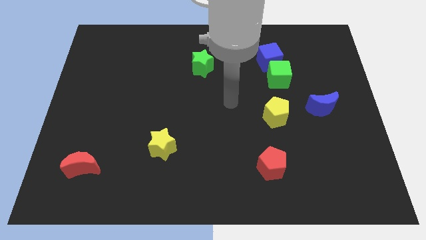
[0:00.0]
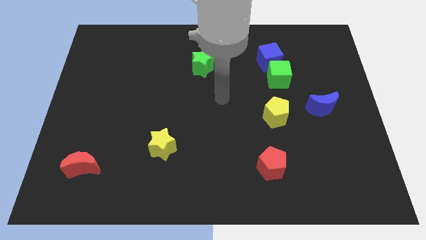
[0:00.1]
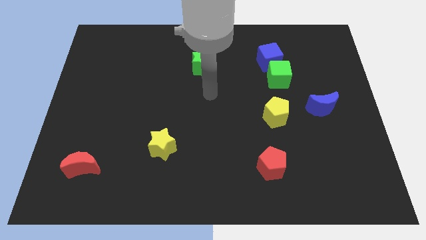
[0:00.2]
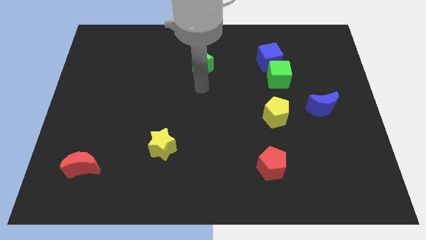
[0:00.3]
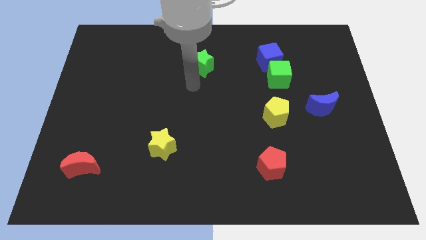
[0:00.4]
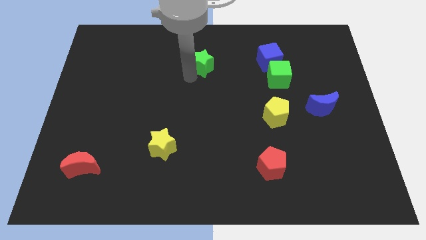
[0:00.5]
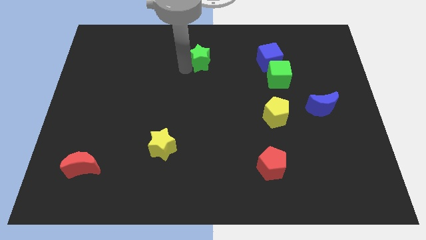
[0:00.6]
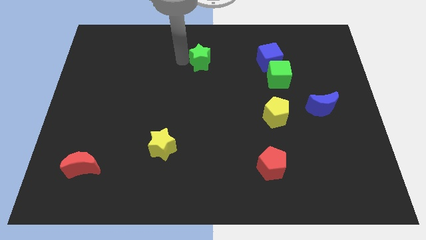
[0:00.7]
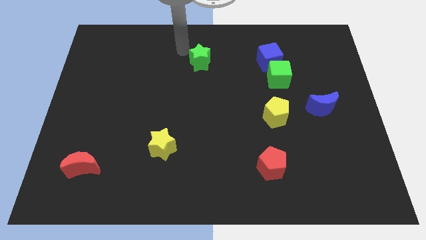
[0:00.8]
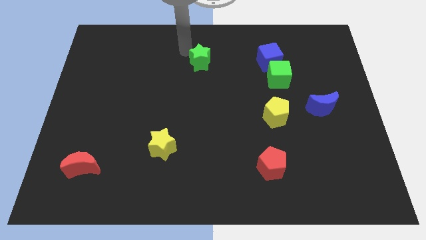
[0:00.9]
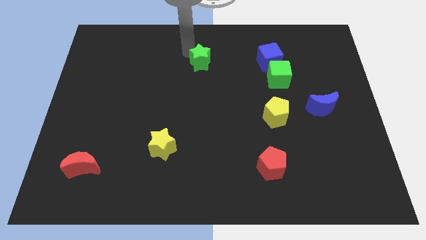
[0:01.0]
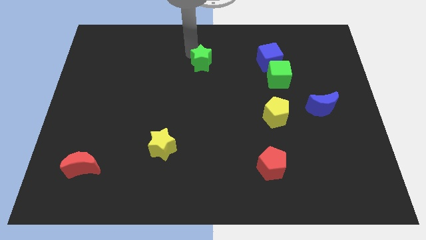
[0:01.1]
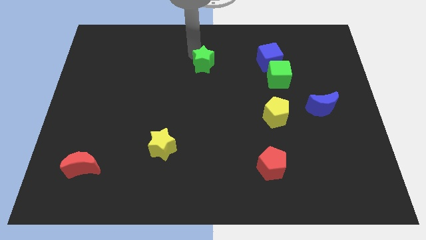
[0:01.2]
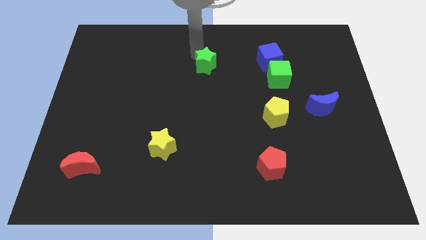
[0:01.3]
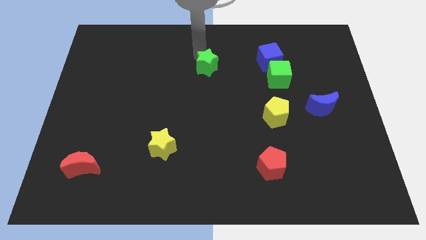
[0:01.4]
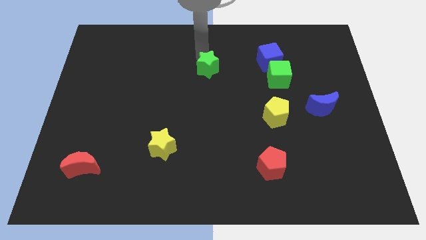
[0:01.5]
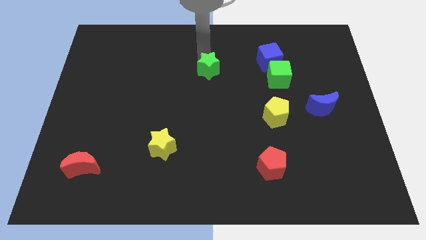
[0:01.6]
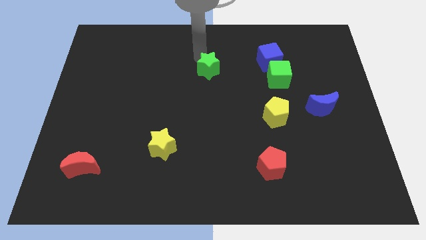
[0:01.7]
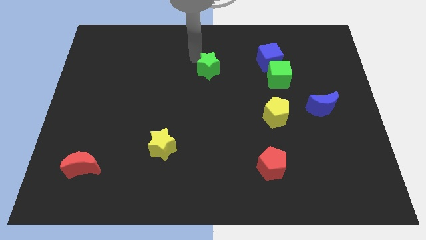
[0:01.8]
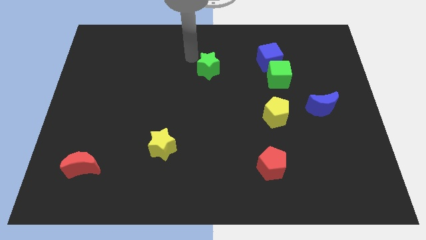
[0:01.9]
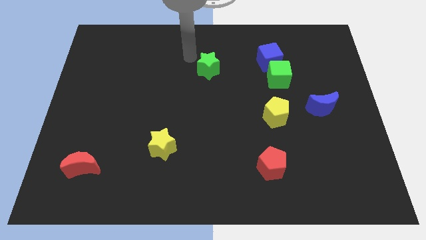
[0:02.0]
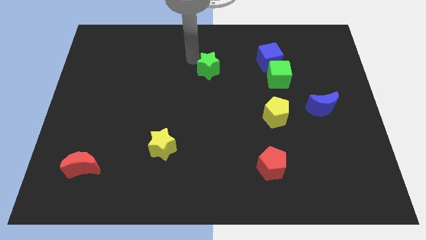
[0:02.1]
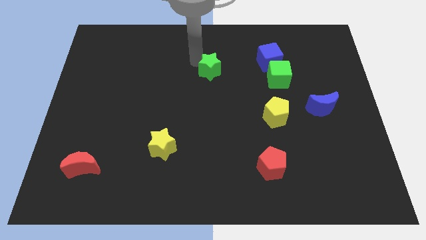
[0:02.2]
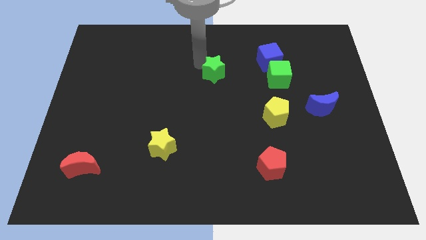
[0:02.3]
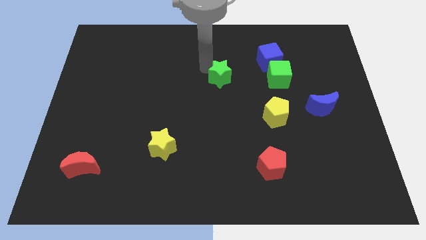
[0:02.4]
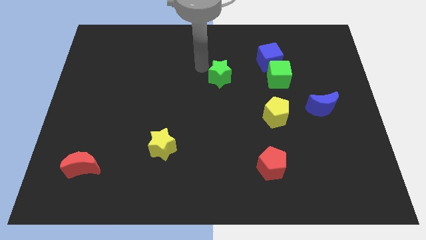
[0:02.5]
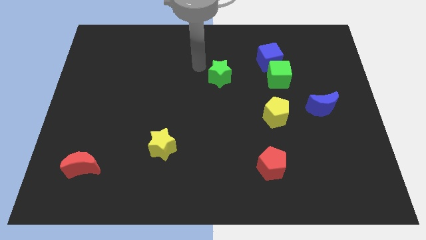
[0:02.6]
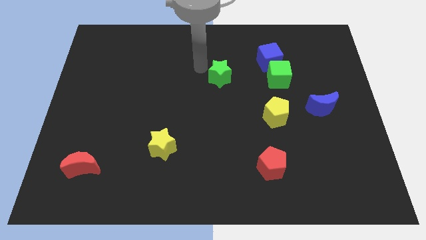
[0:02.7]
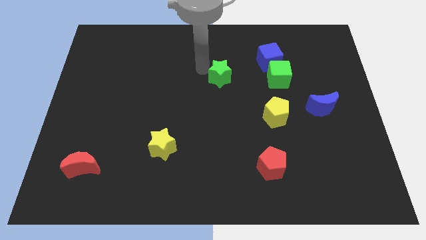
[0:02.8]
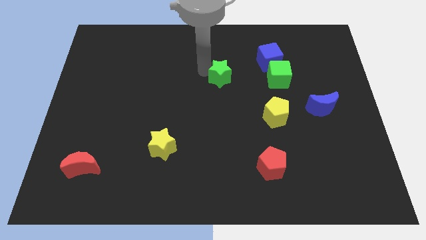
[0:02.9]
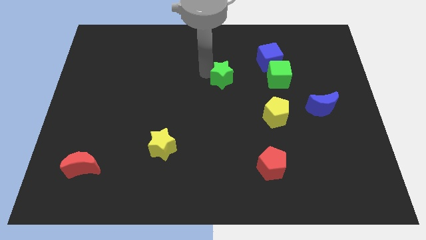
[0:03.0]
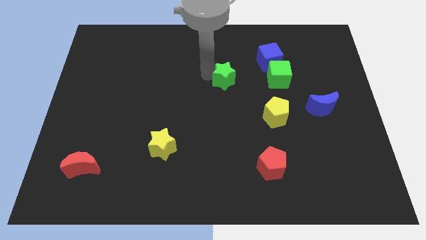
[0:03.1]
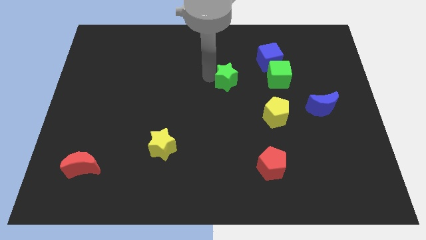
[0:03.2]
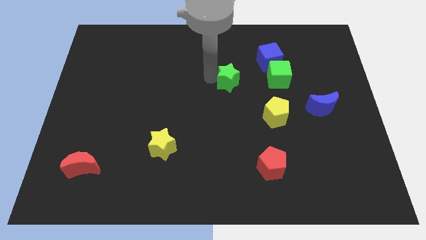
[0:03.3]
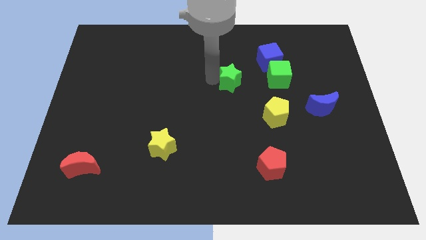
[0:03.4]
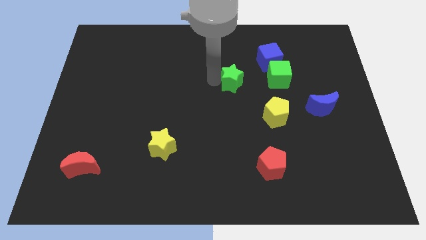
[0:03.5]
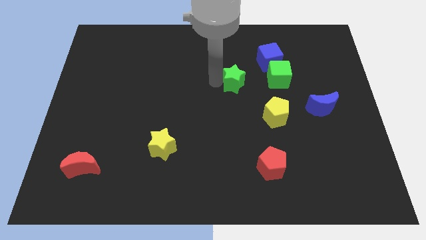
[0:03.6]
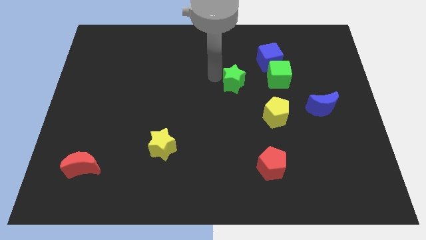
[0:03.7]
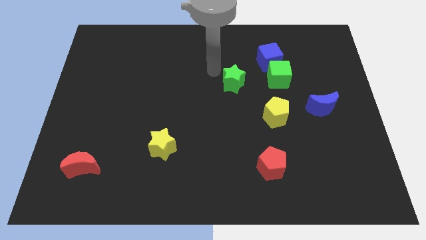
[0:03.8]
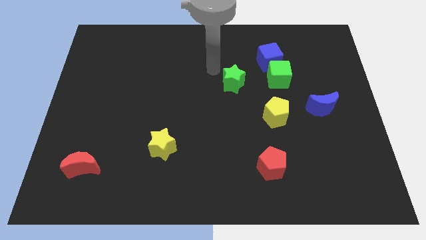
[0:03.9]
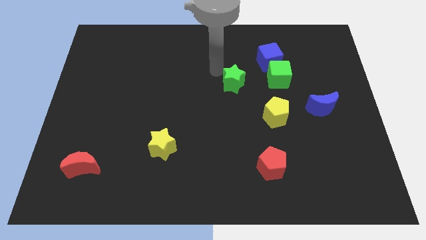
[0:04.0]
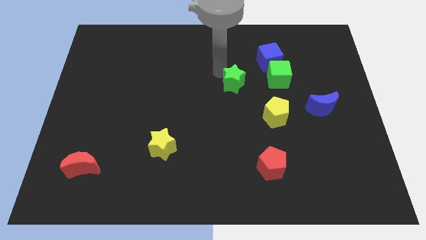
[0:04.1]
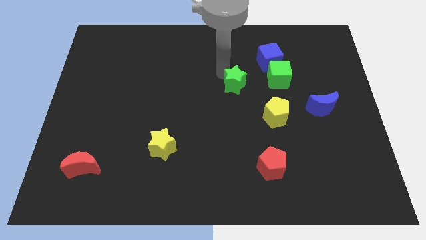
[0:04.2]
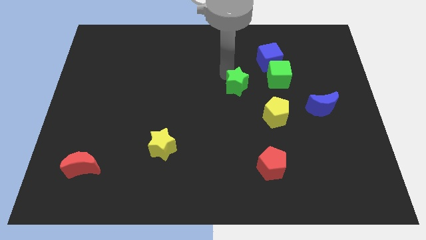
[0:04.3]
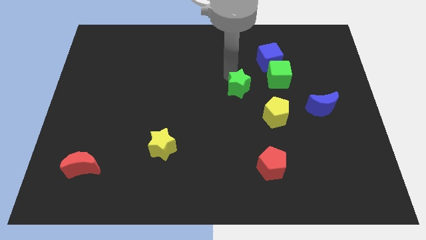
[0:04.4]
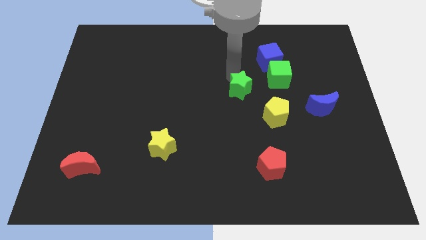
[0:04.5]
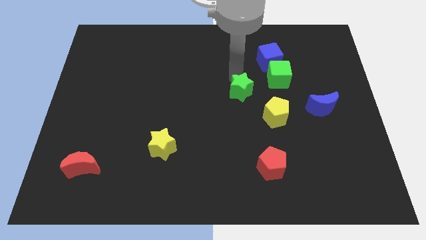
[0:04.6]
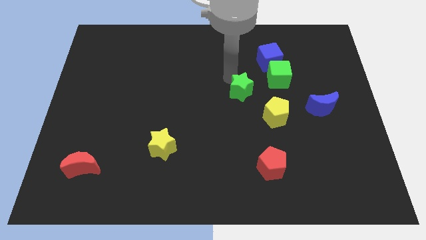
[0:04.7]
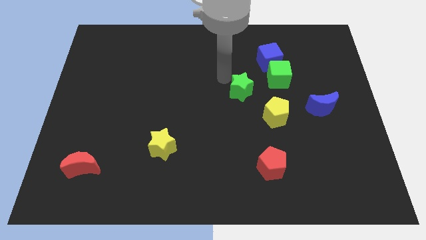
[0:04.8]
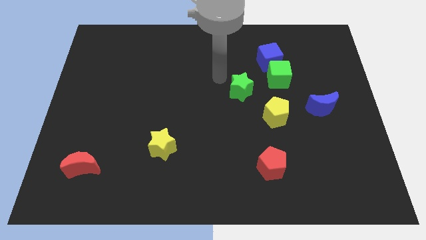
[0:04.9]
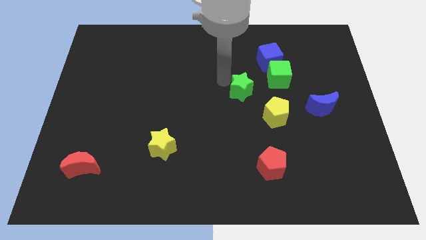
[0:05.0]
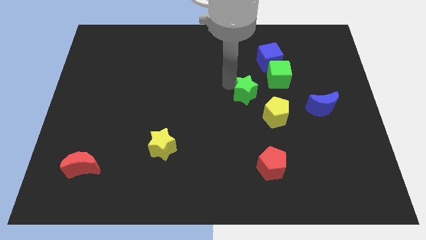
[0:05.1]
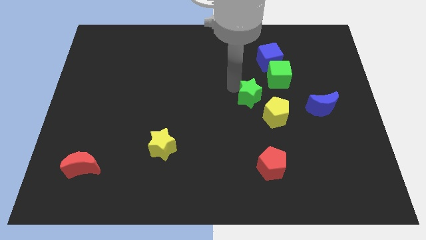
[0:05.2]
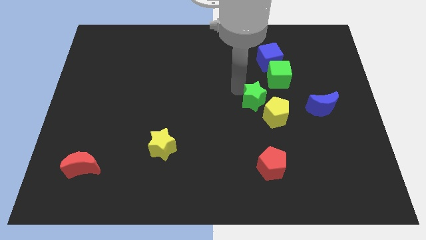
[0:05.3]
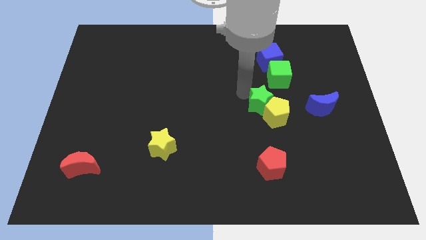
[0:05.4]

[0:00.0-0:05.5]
put the green star close to the yellow pentagon

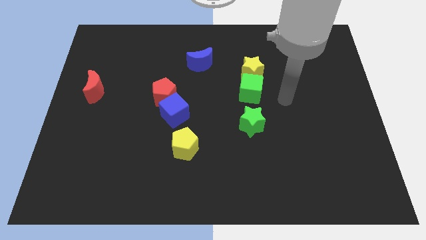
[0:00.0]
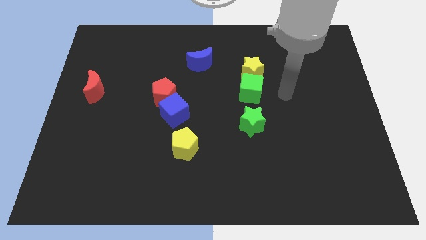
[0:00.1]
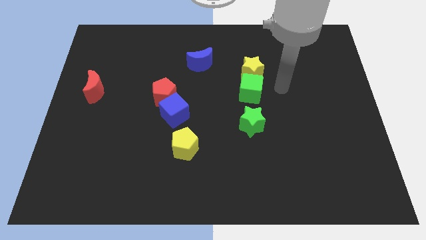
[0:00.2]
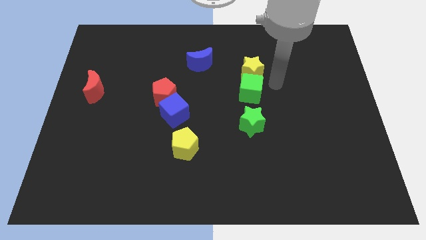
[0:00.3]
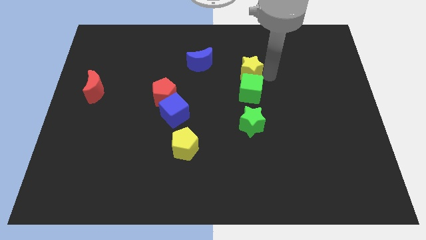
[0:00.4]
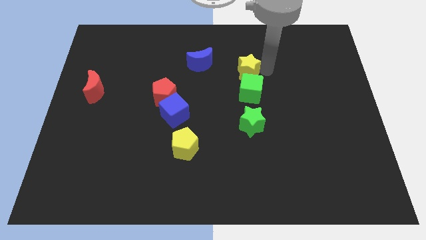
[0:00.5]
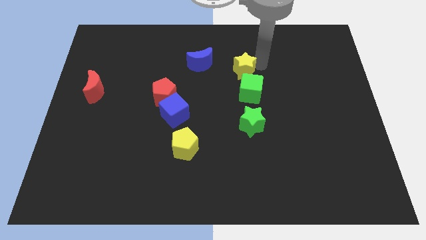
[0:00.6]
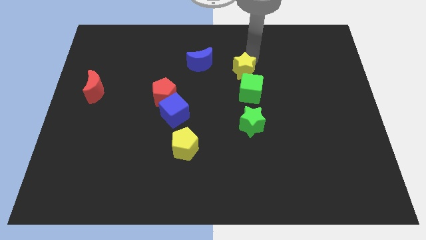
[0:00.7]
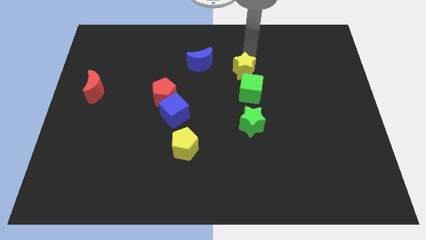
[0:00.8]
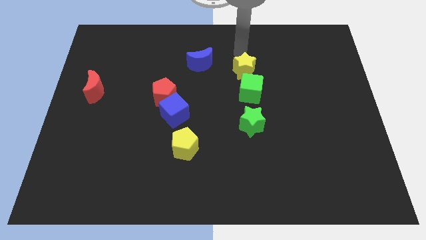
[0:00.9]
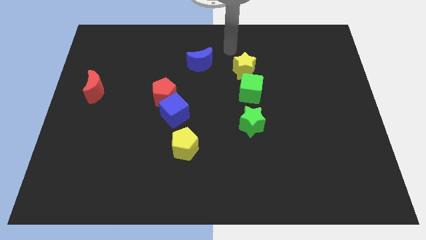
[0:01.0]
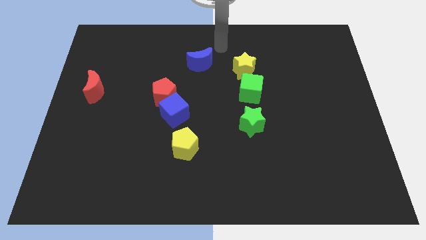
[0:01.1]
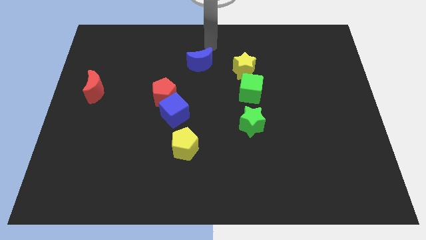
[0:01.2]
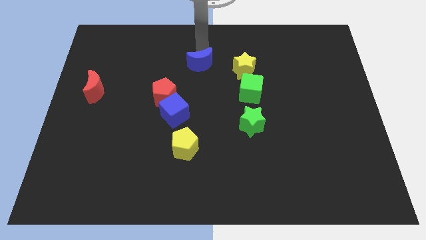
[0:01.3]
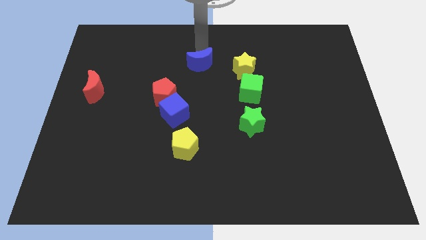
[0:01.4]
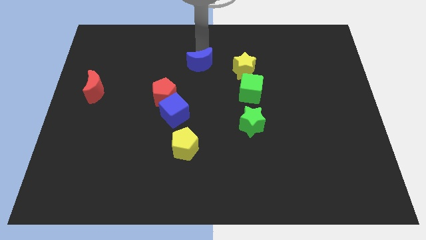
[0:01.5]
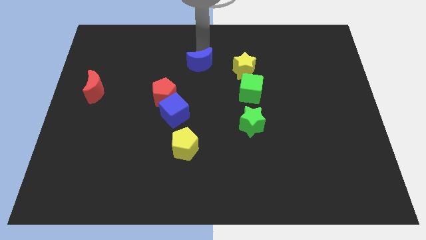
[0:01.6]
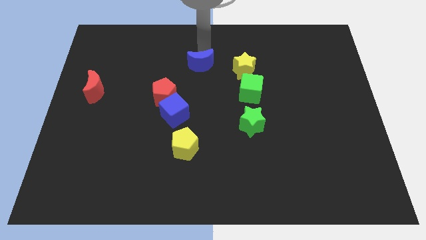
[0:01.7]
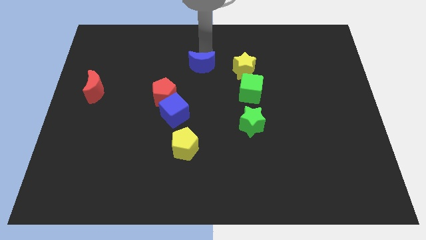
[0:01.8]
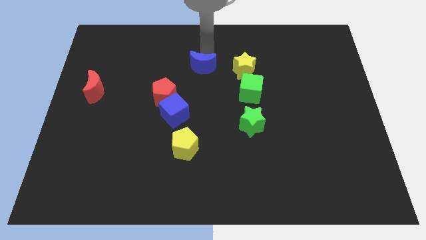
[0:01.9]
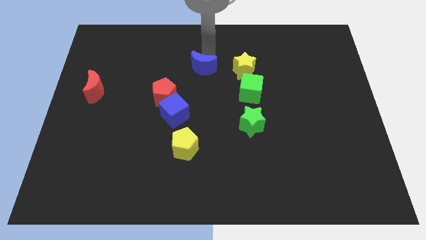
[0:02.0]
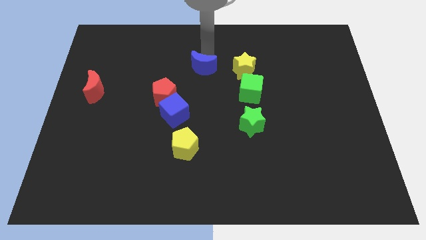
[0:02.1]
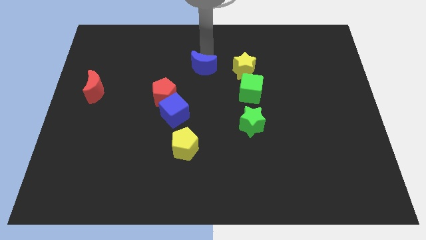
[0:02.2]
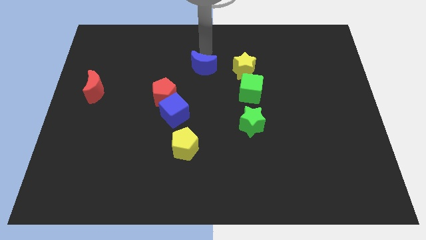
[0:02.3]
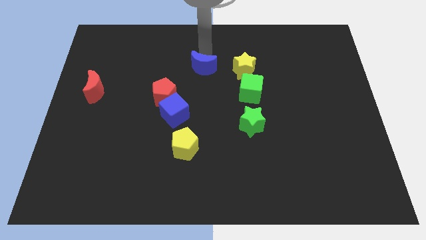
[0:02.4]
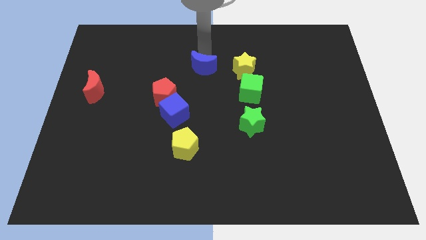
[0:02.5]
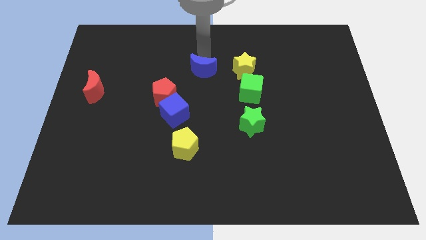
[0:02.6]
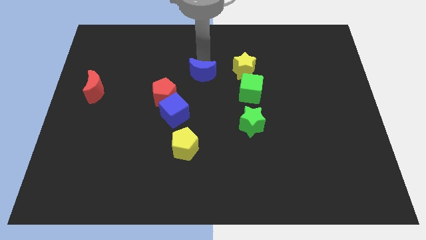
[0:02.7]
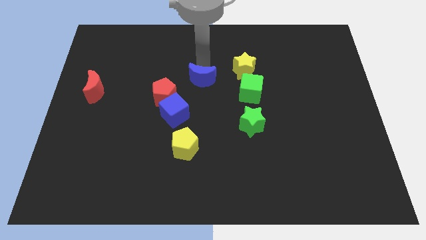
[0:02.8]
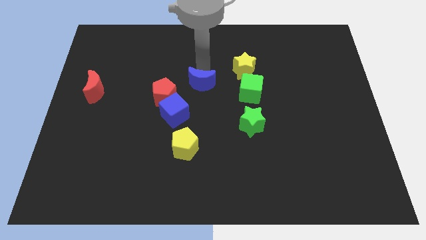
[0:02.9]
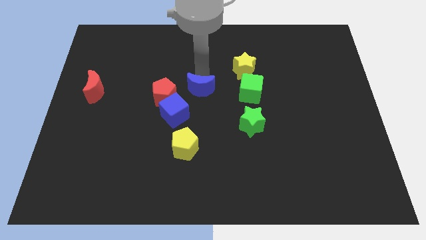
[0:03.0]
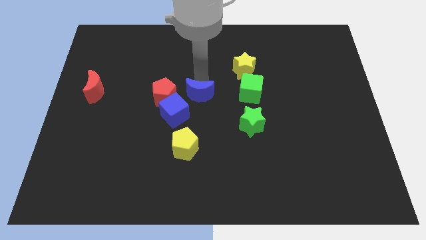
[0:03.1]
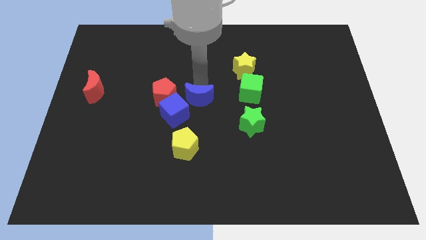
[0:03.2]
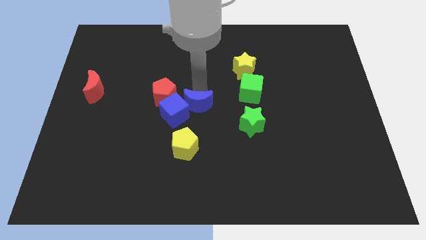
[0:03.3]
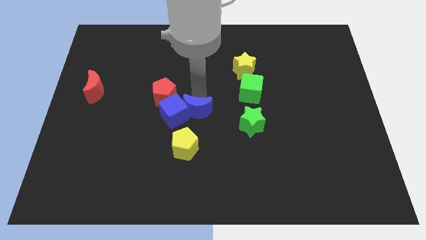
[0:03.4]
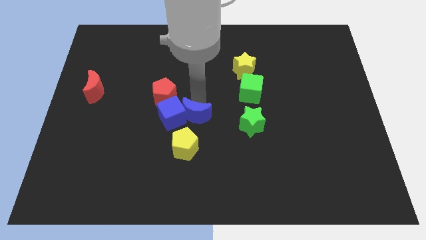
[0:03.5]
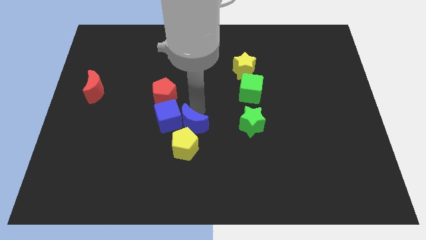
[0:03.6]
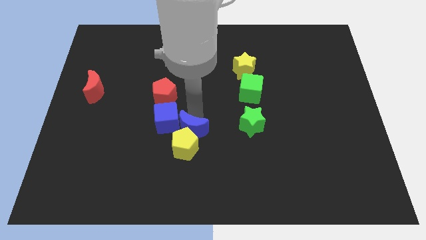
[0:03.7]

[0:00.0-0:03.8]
put the blue moon towards the yellow pentagon
